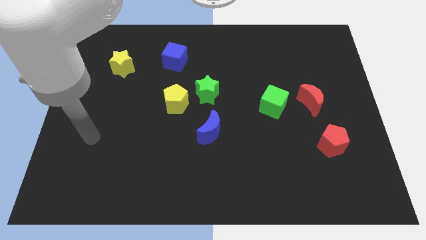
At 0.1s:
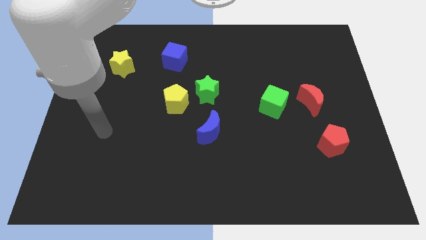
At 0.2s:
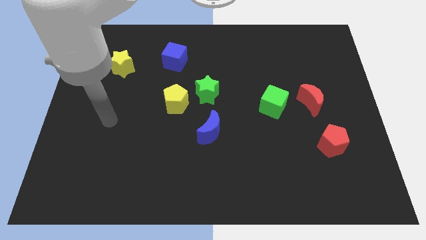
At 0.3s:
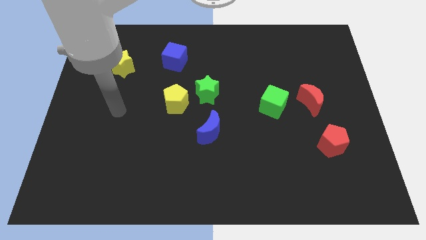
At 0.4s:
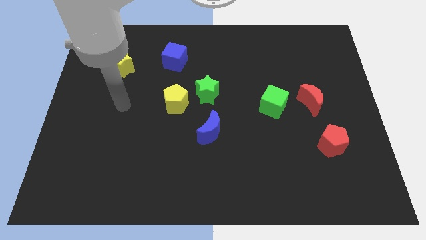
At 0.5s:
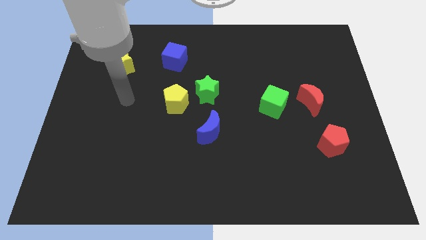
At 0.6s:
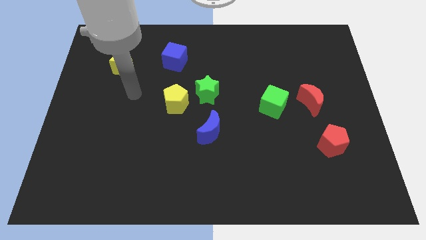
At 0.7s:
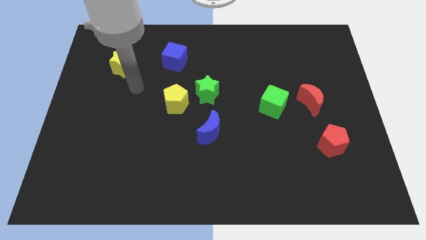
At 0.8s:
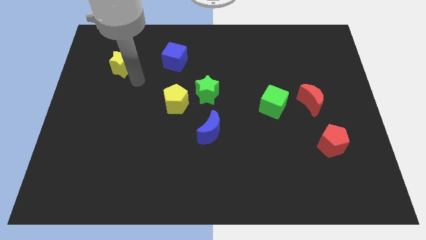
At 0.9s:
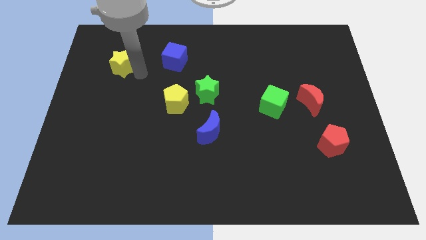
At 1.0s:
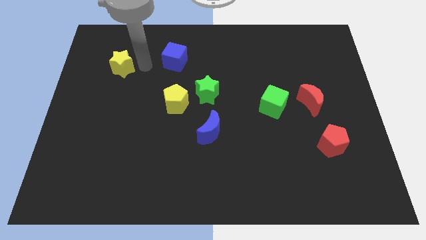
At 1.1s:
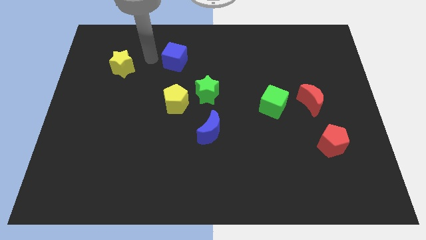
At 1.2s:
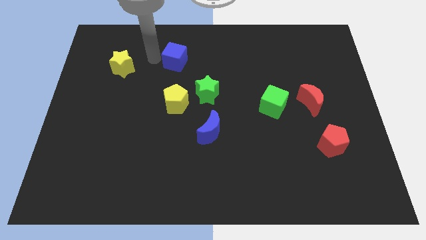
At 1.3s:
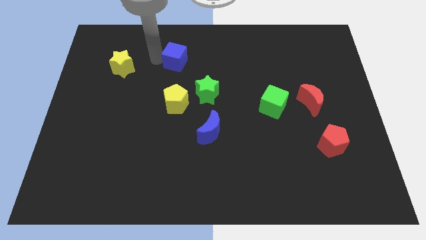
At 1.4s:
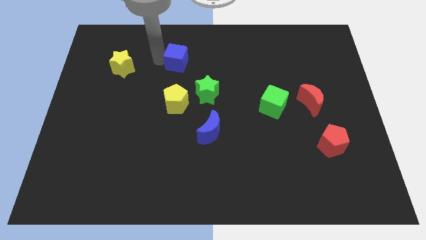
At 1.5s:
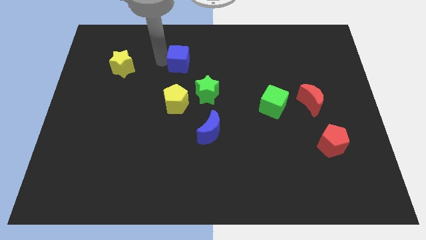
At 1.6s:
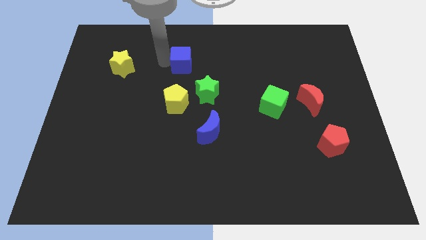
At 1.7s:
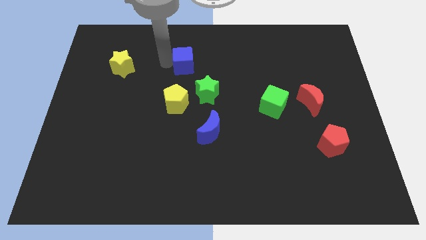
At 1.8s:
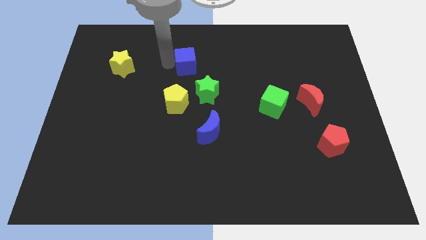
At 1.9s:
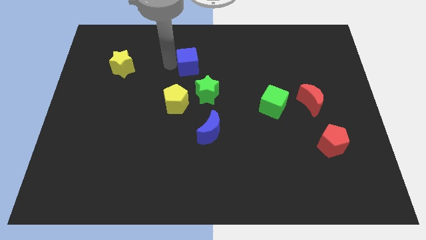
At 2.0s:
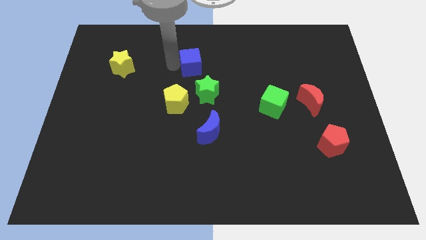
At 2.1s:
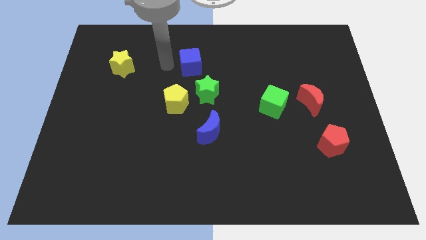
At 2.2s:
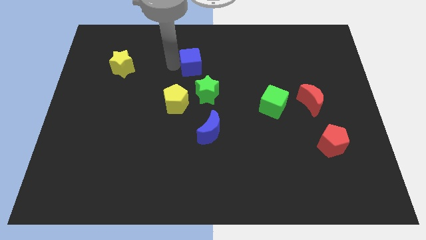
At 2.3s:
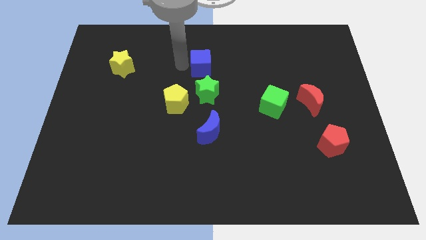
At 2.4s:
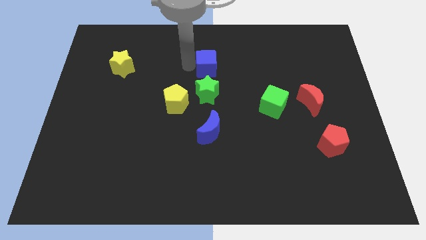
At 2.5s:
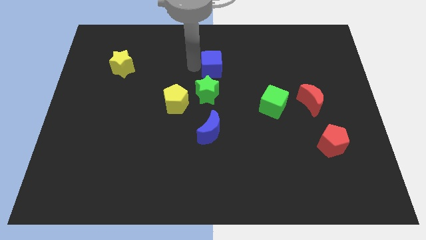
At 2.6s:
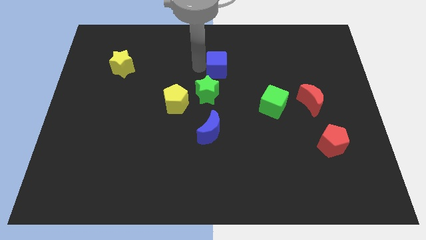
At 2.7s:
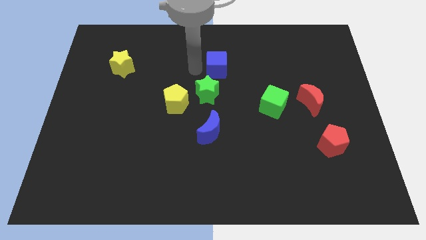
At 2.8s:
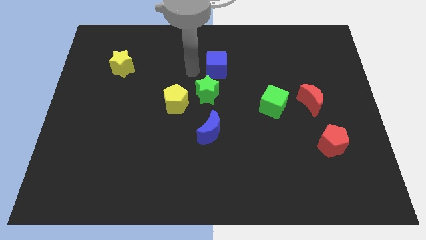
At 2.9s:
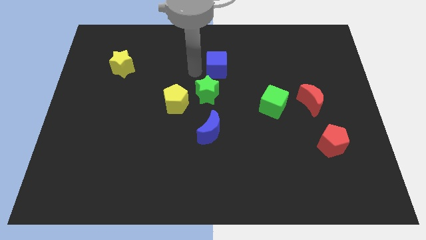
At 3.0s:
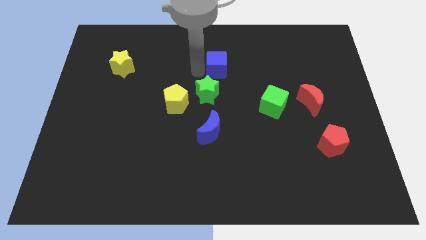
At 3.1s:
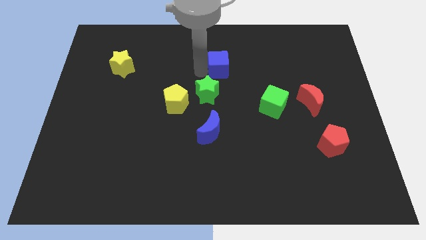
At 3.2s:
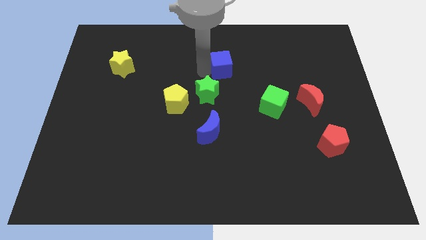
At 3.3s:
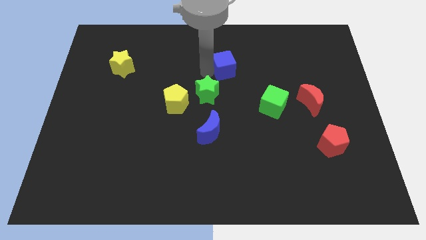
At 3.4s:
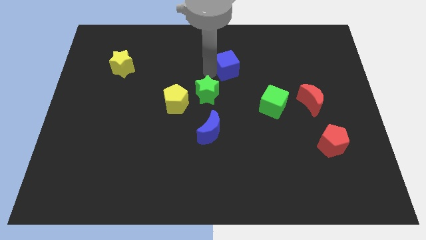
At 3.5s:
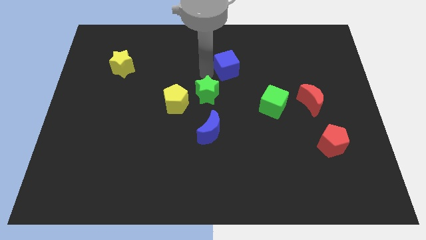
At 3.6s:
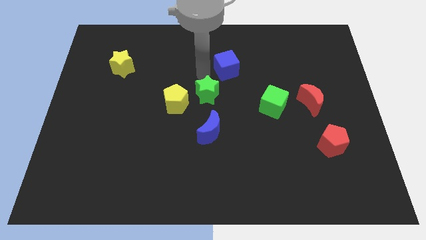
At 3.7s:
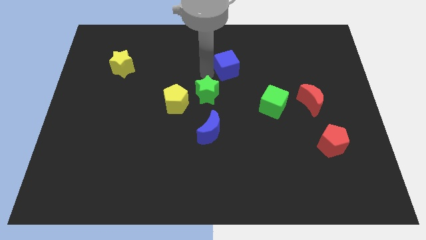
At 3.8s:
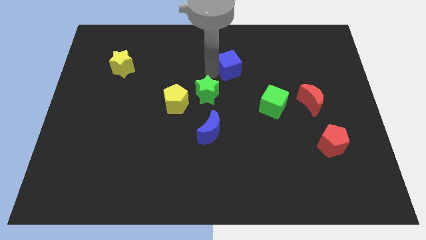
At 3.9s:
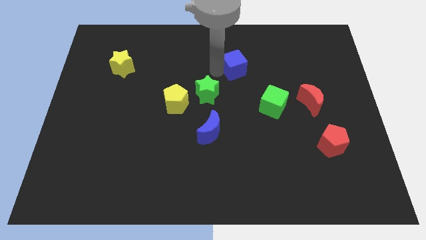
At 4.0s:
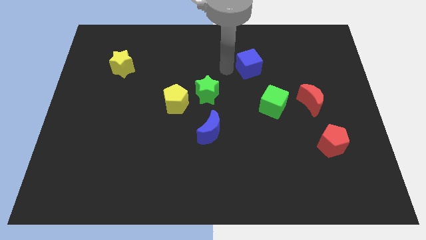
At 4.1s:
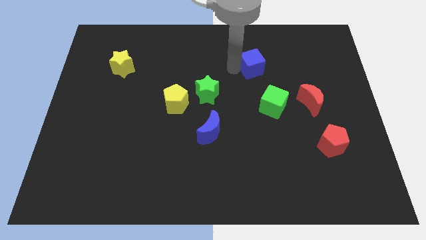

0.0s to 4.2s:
move the blue cube to the right

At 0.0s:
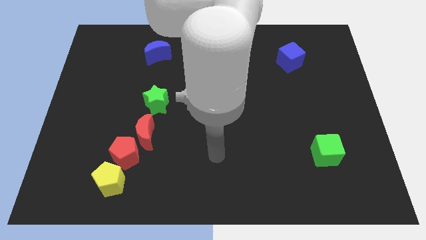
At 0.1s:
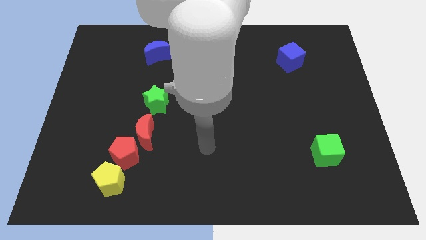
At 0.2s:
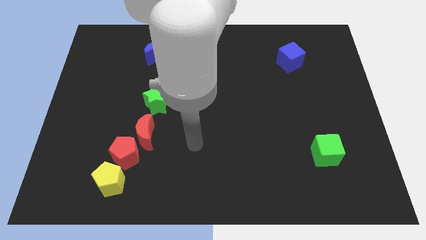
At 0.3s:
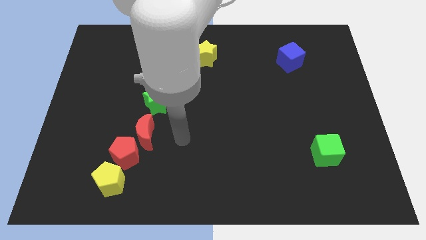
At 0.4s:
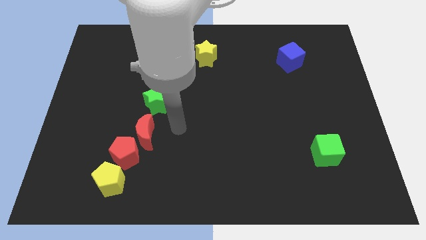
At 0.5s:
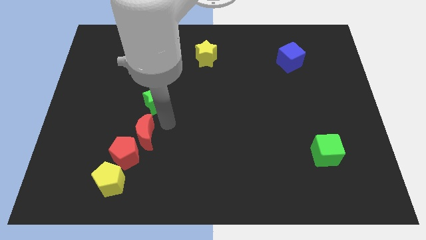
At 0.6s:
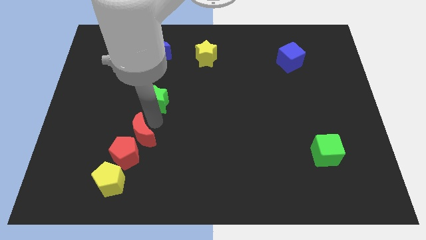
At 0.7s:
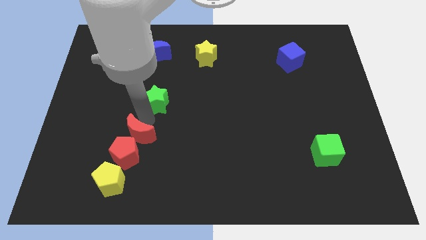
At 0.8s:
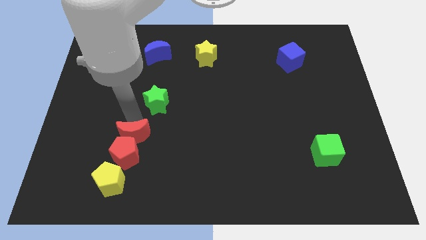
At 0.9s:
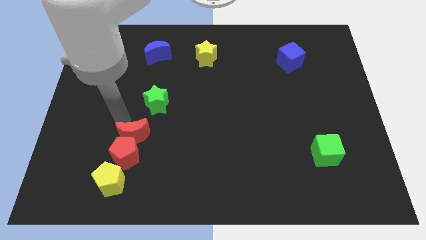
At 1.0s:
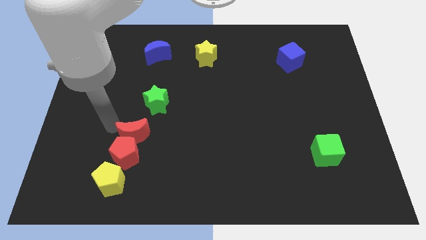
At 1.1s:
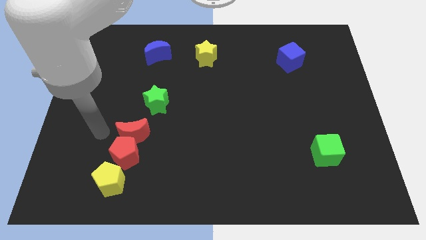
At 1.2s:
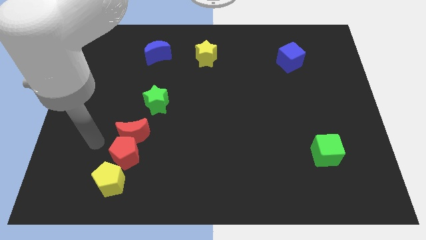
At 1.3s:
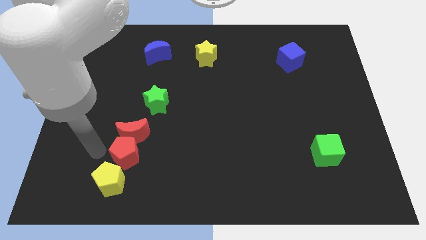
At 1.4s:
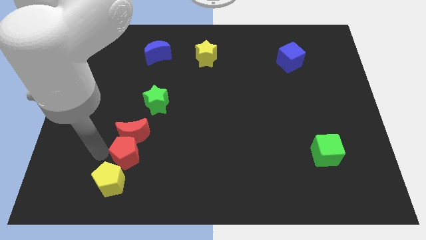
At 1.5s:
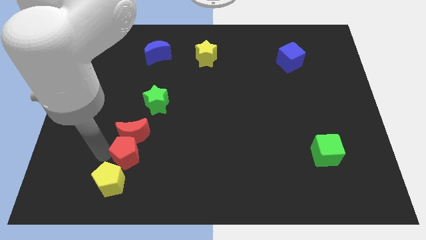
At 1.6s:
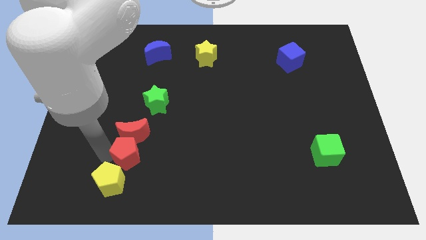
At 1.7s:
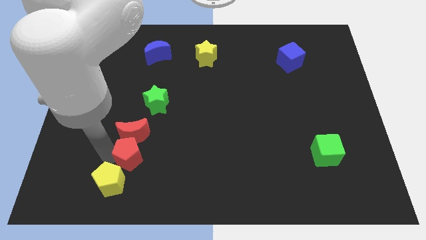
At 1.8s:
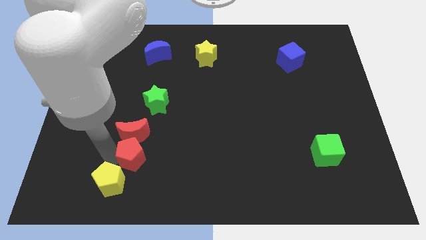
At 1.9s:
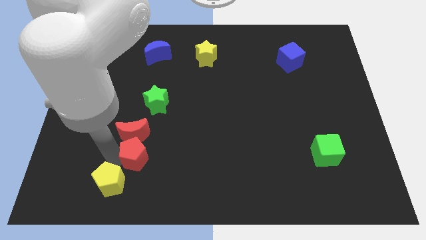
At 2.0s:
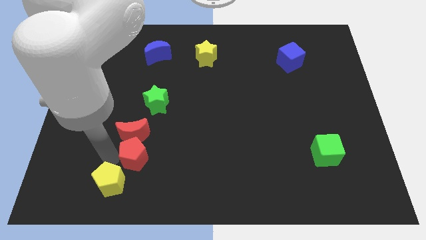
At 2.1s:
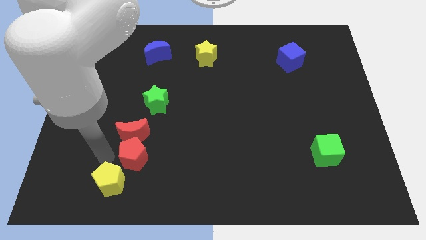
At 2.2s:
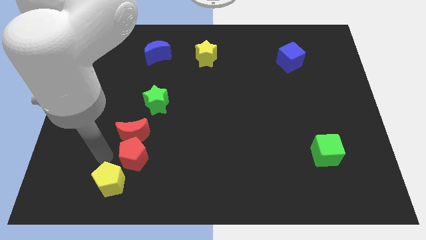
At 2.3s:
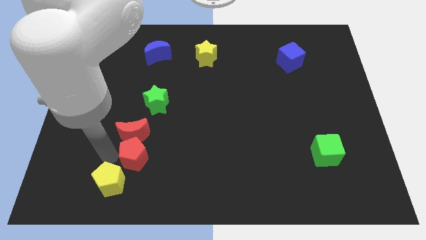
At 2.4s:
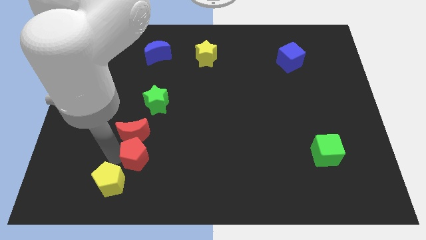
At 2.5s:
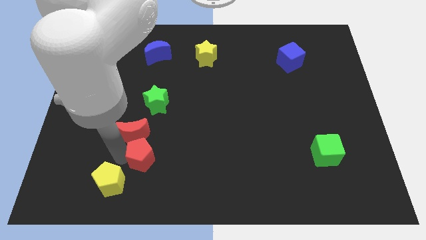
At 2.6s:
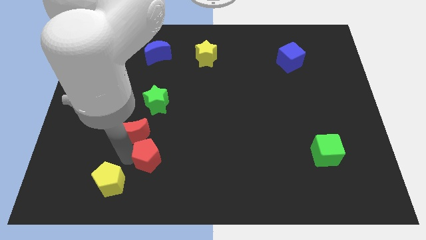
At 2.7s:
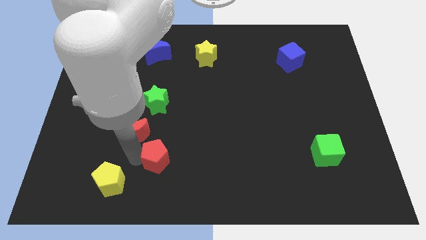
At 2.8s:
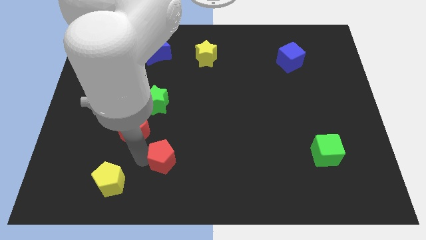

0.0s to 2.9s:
slide the red pentagon to the right somewhat

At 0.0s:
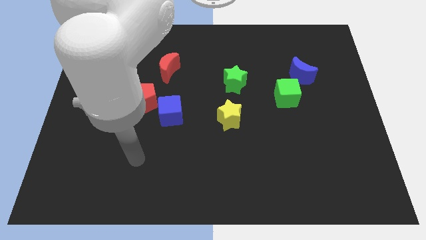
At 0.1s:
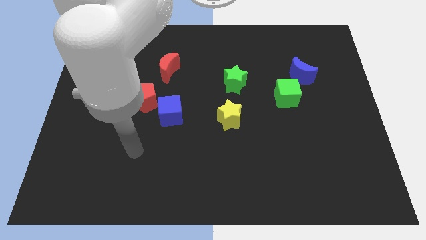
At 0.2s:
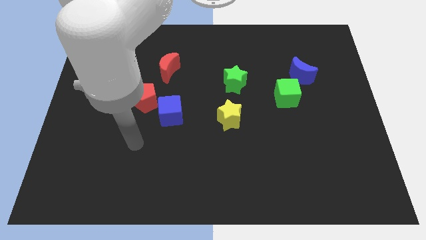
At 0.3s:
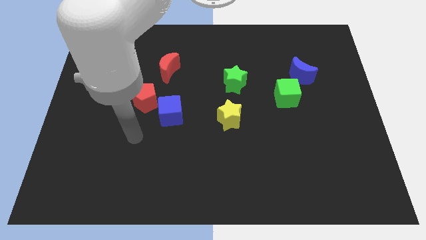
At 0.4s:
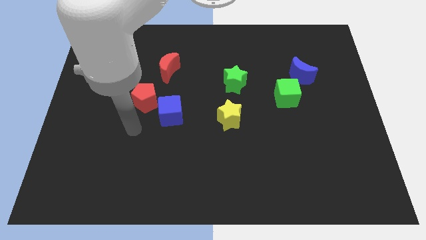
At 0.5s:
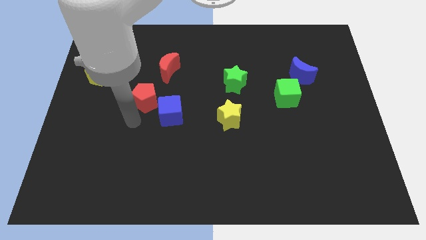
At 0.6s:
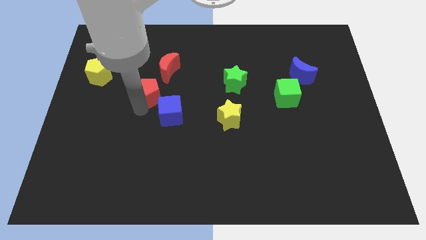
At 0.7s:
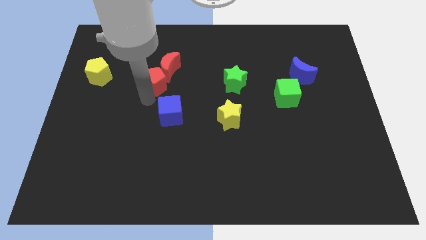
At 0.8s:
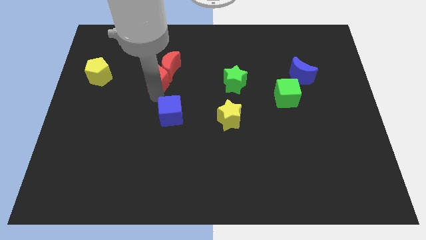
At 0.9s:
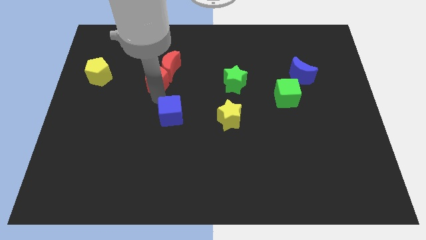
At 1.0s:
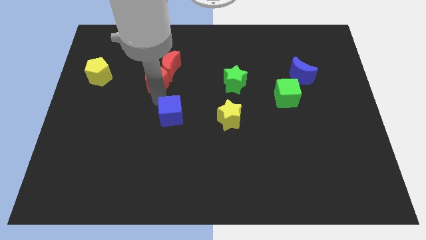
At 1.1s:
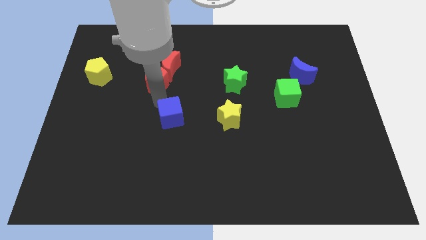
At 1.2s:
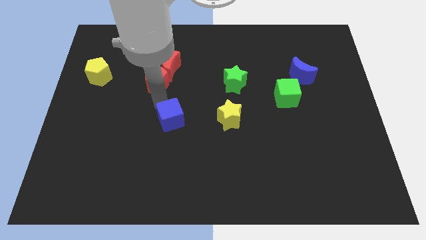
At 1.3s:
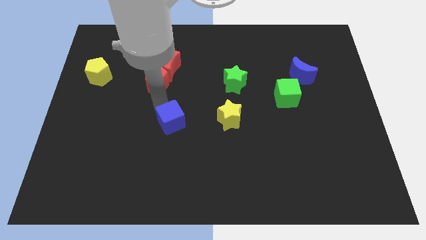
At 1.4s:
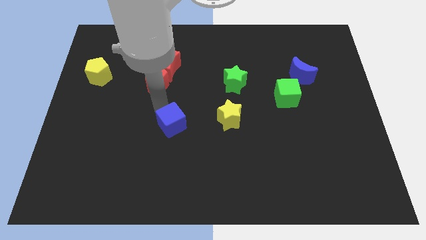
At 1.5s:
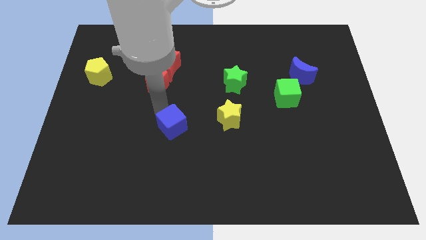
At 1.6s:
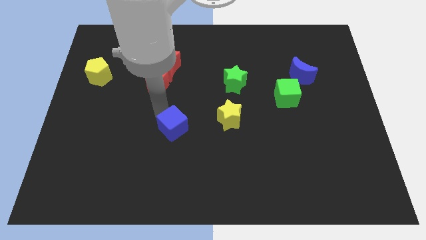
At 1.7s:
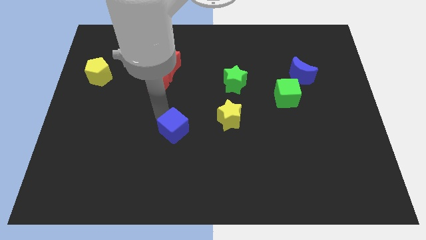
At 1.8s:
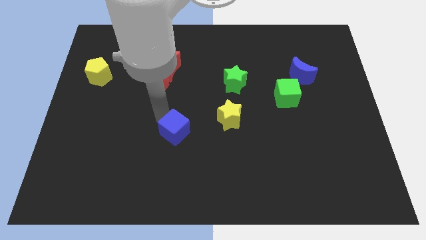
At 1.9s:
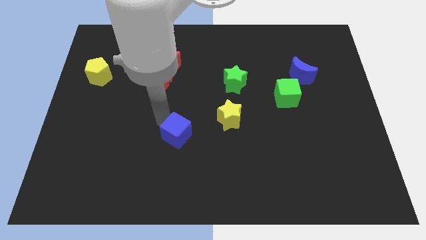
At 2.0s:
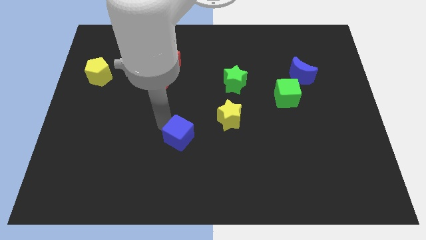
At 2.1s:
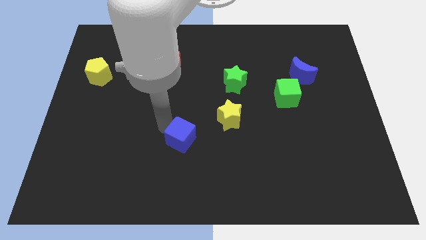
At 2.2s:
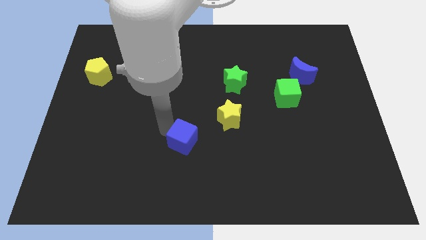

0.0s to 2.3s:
slightly push the blue cube downwards and then to the right
